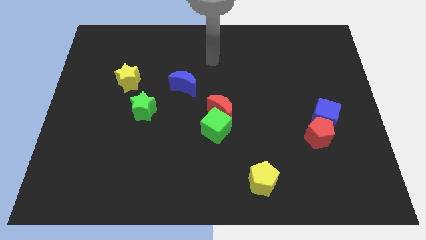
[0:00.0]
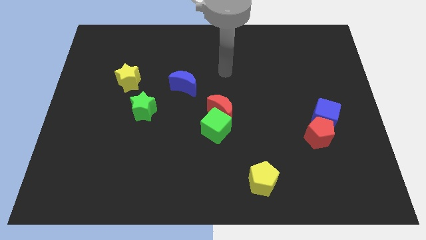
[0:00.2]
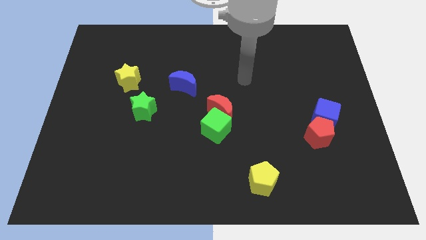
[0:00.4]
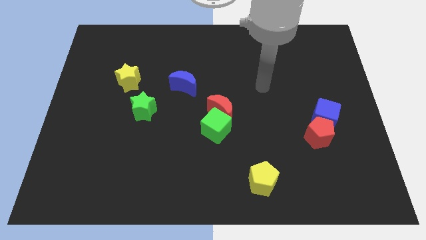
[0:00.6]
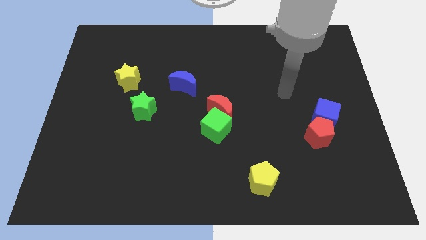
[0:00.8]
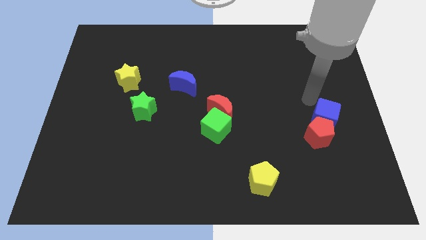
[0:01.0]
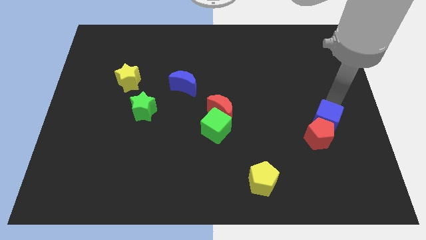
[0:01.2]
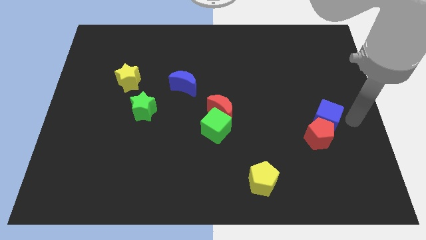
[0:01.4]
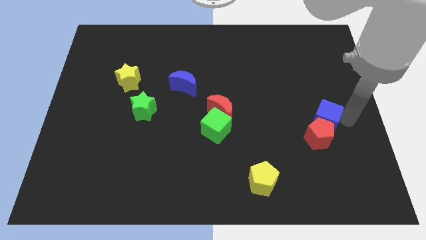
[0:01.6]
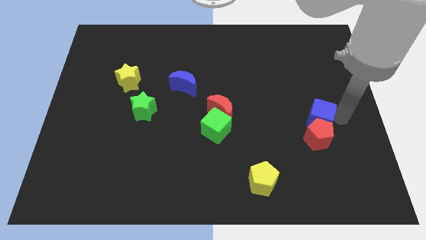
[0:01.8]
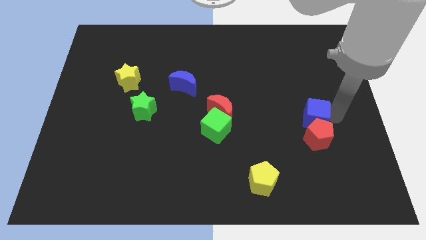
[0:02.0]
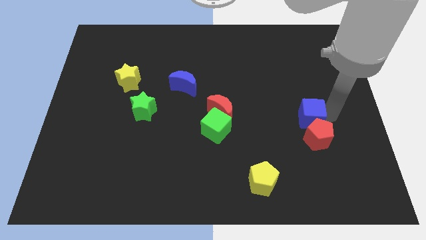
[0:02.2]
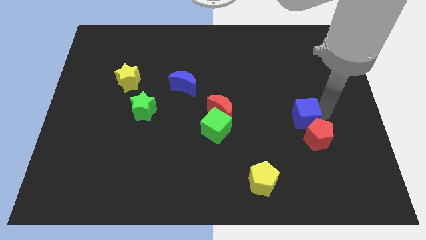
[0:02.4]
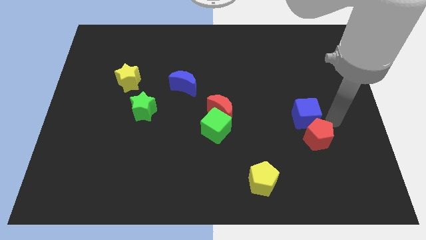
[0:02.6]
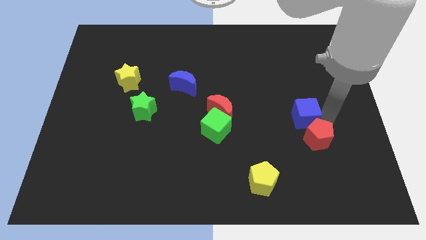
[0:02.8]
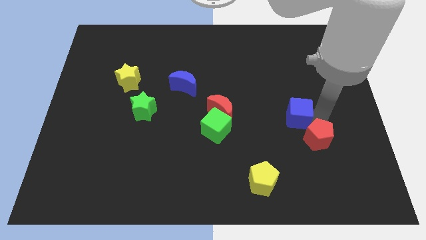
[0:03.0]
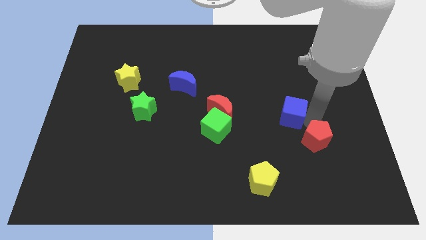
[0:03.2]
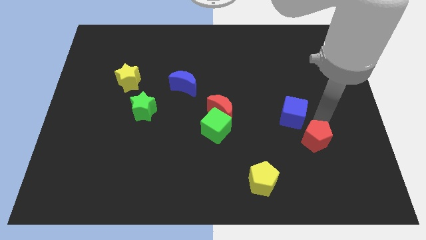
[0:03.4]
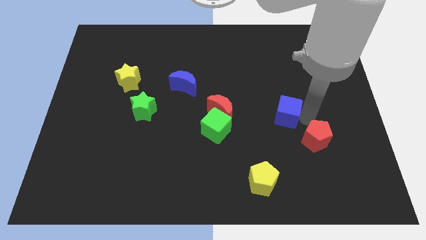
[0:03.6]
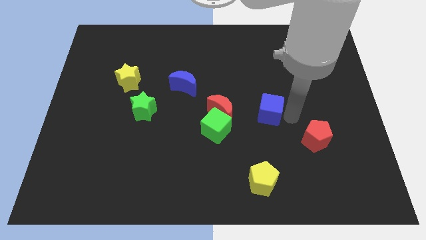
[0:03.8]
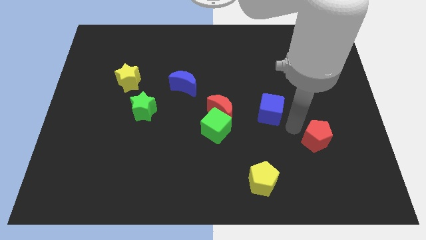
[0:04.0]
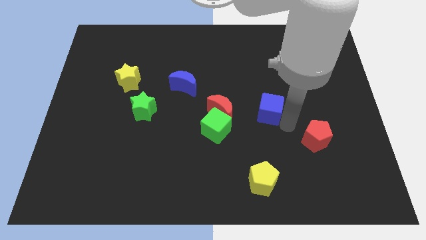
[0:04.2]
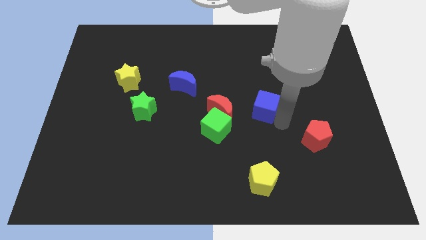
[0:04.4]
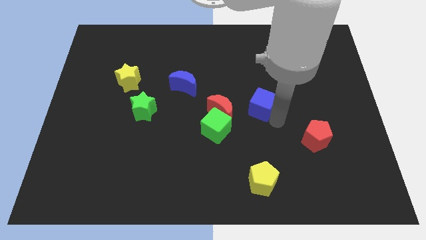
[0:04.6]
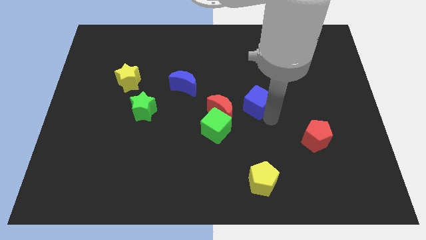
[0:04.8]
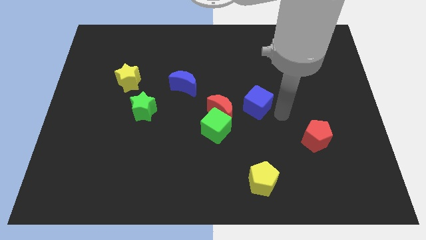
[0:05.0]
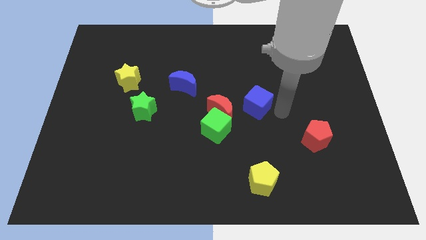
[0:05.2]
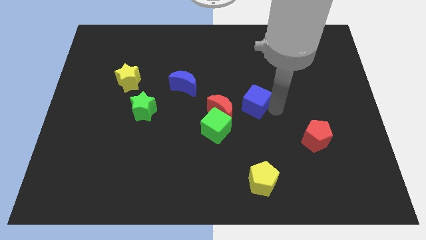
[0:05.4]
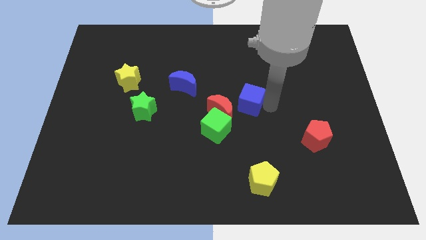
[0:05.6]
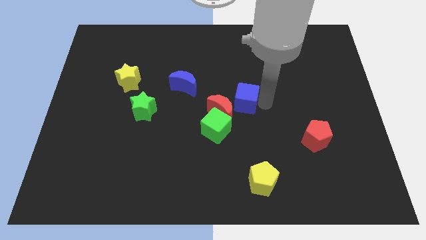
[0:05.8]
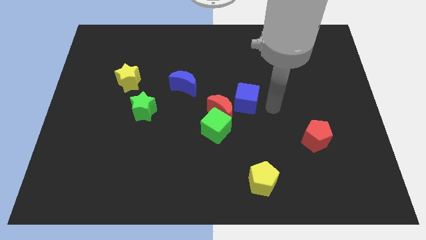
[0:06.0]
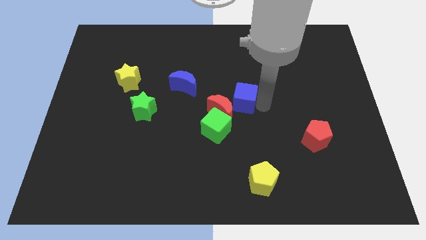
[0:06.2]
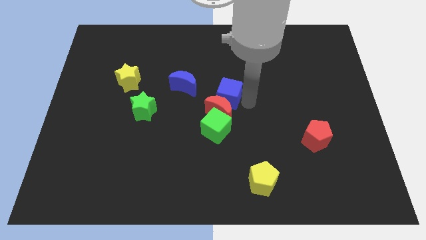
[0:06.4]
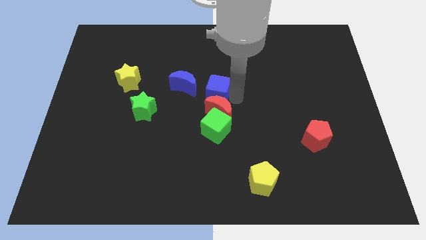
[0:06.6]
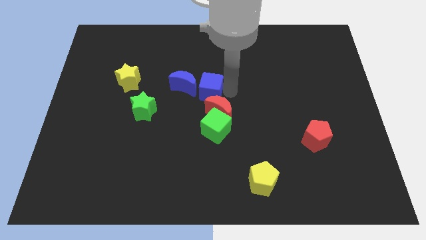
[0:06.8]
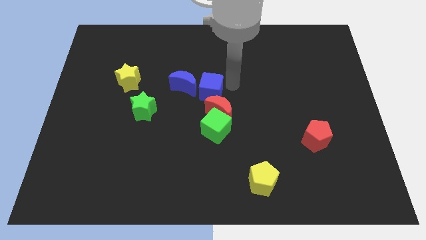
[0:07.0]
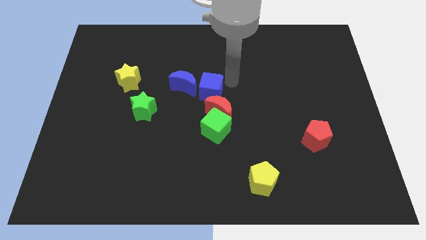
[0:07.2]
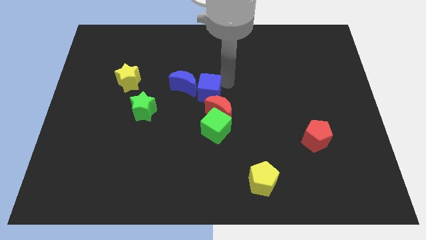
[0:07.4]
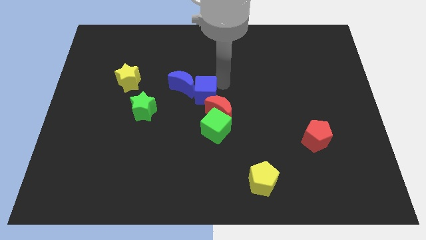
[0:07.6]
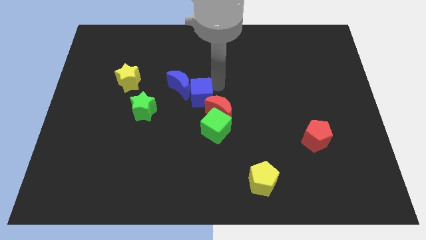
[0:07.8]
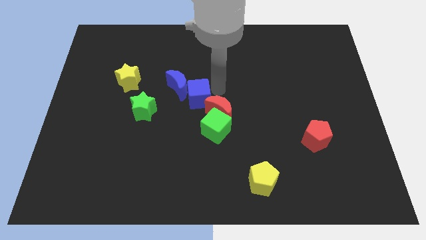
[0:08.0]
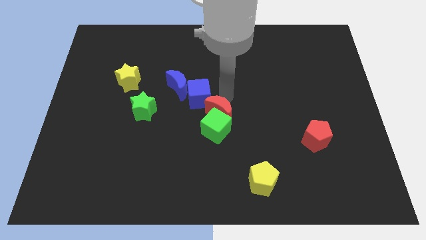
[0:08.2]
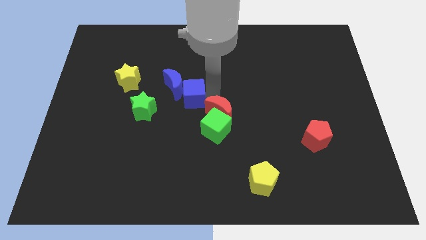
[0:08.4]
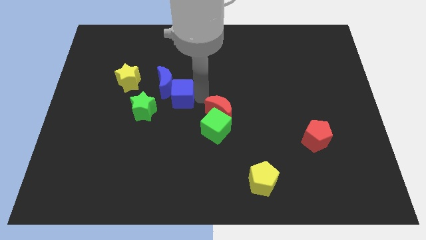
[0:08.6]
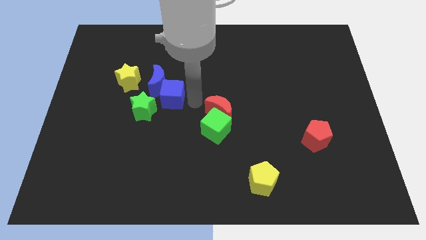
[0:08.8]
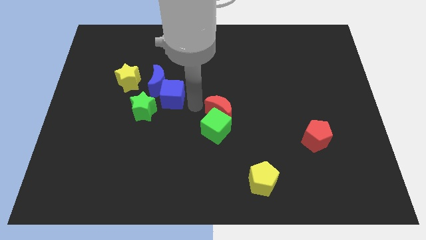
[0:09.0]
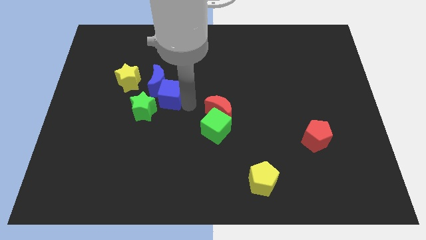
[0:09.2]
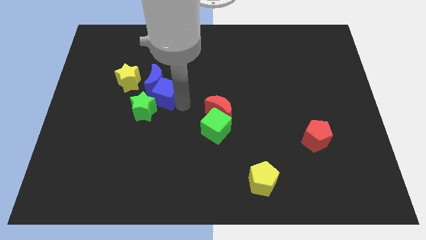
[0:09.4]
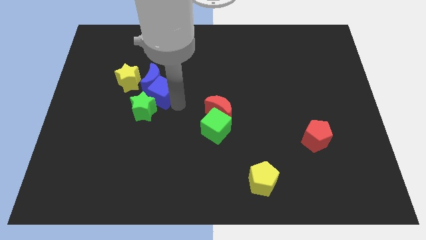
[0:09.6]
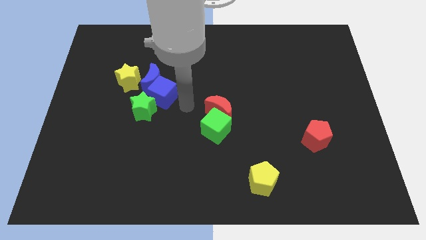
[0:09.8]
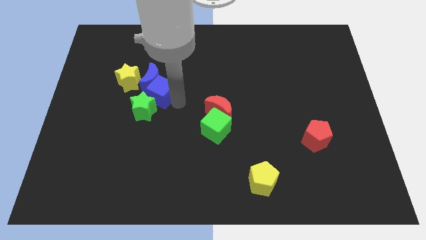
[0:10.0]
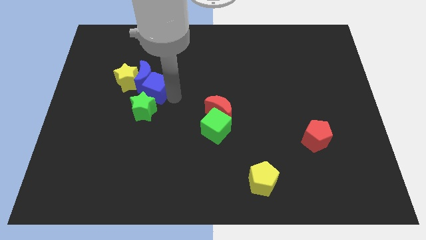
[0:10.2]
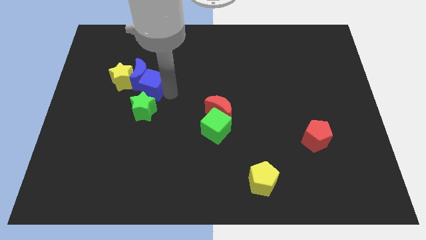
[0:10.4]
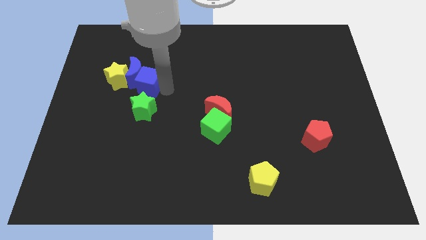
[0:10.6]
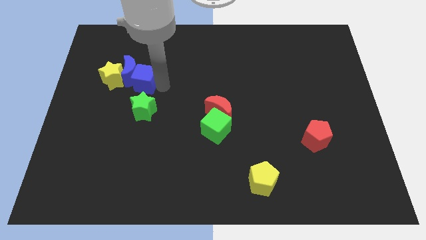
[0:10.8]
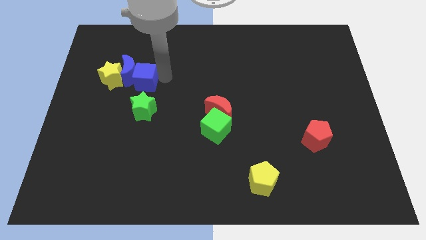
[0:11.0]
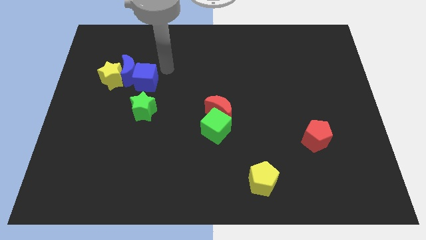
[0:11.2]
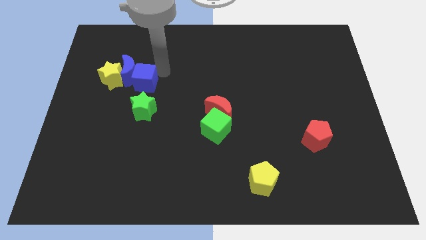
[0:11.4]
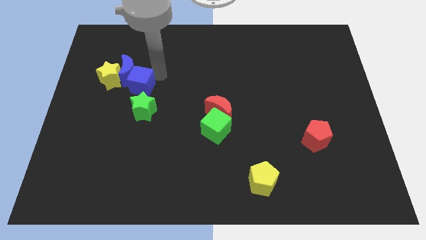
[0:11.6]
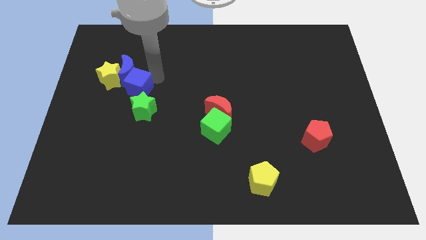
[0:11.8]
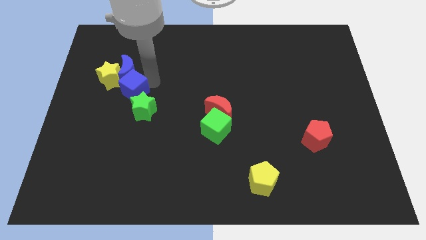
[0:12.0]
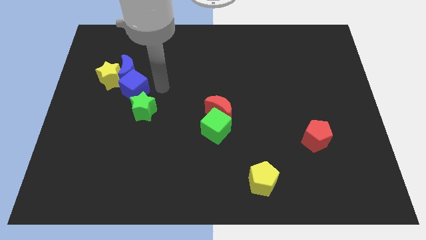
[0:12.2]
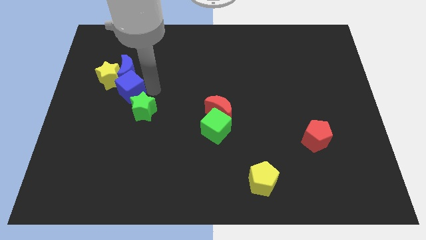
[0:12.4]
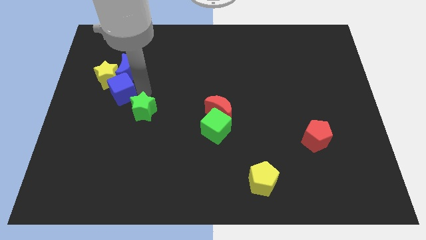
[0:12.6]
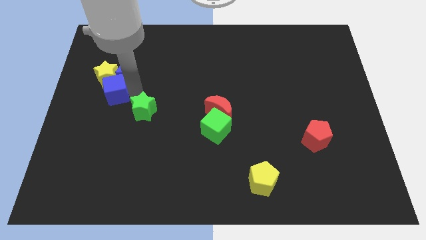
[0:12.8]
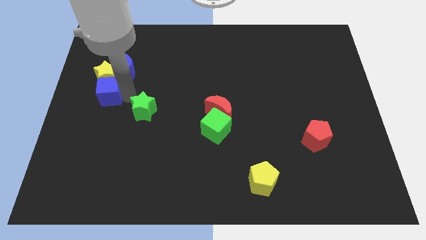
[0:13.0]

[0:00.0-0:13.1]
slide the blue cube to the bottom left side of the yellow star

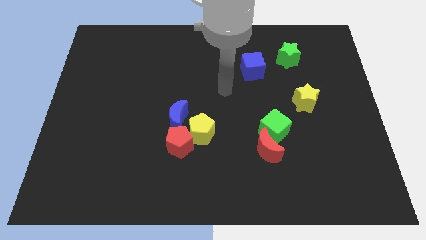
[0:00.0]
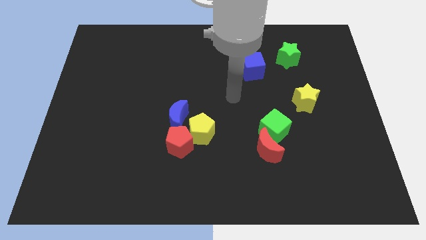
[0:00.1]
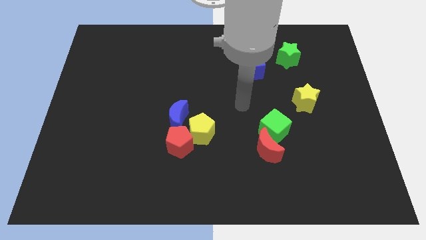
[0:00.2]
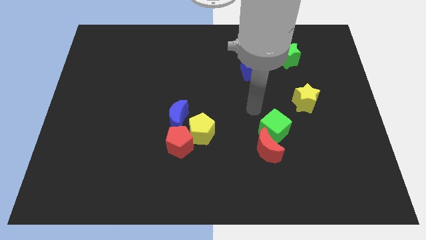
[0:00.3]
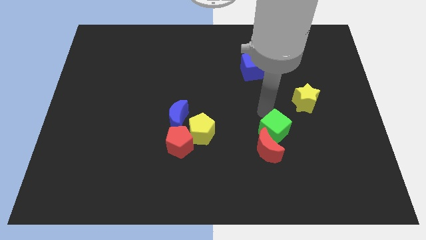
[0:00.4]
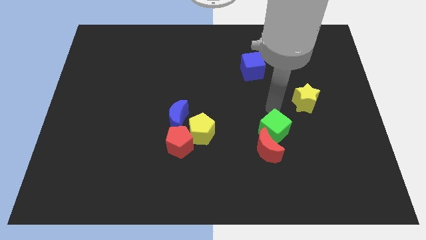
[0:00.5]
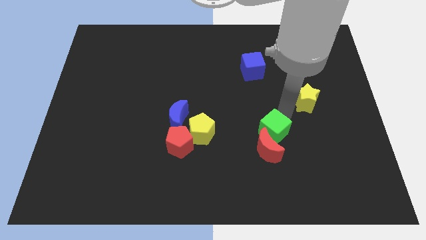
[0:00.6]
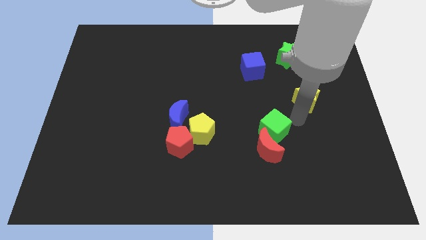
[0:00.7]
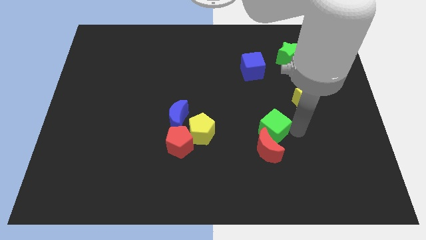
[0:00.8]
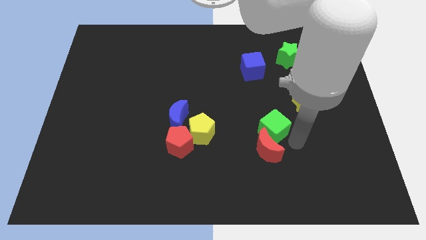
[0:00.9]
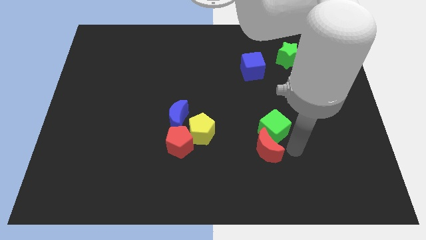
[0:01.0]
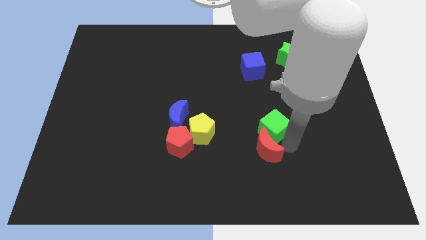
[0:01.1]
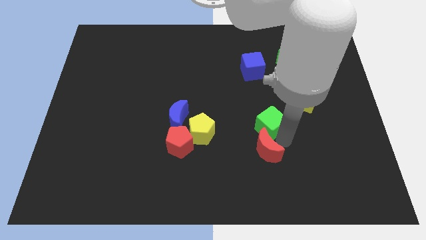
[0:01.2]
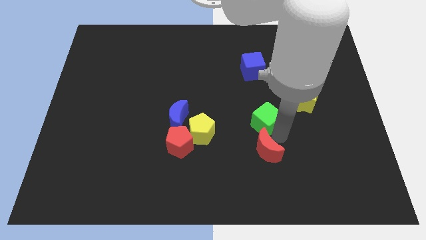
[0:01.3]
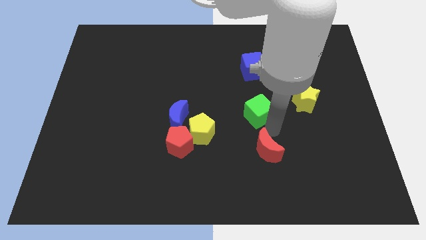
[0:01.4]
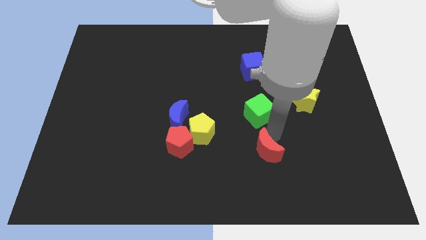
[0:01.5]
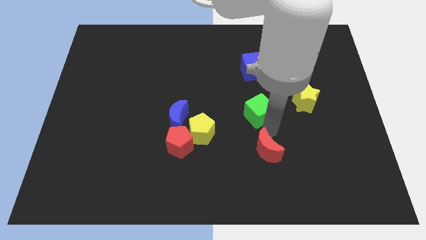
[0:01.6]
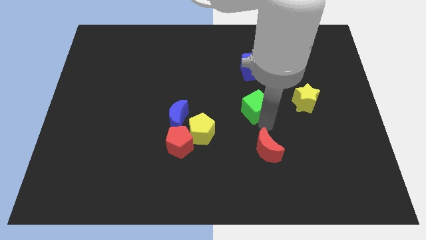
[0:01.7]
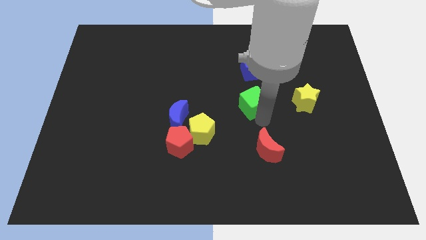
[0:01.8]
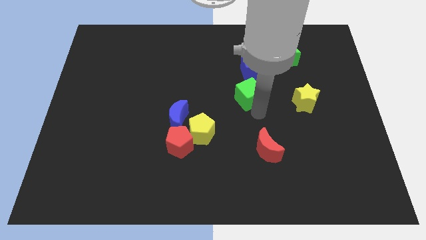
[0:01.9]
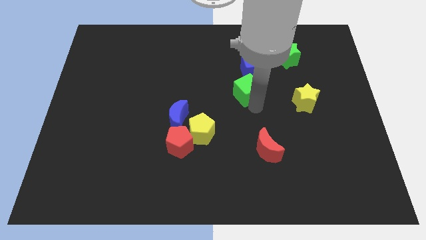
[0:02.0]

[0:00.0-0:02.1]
move the green cube diagonally down and to the left of the blue cube
